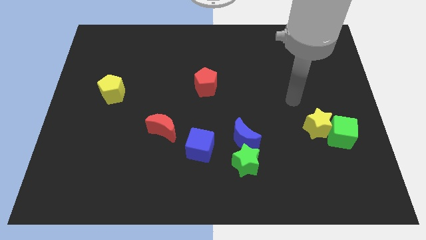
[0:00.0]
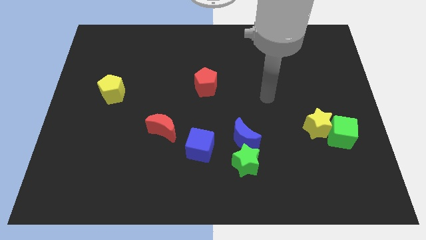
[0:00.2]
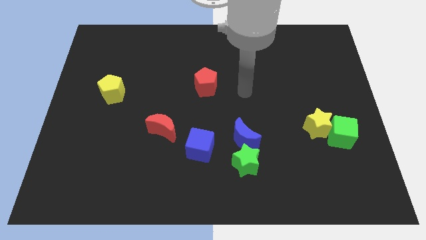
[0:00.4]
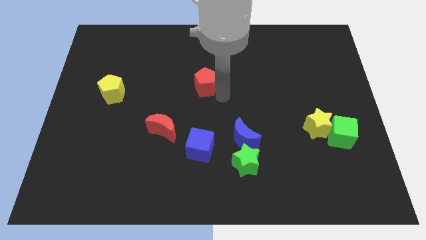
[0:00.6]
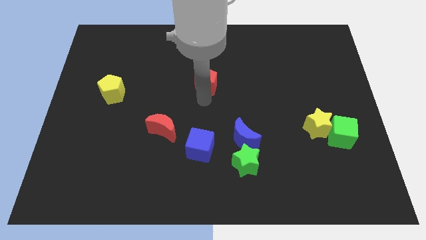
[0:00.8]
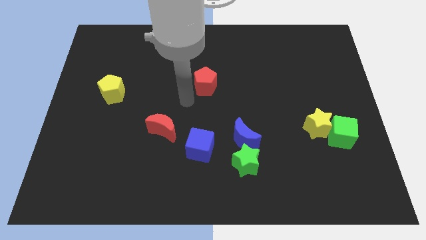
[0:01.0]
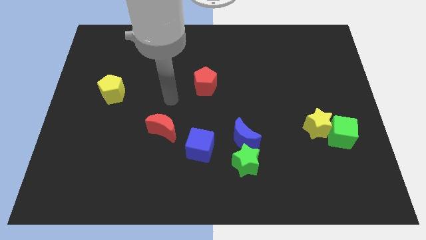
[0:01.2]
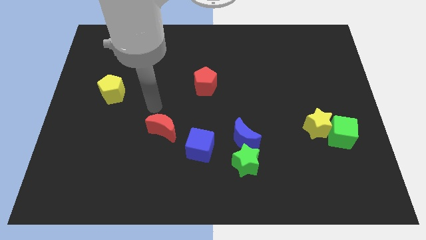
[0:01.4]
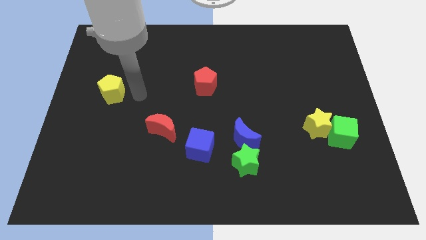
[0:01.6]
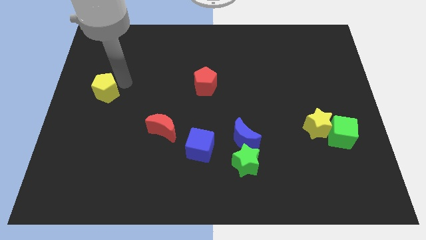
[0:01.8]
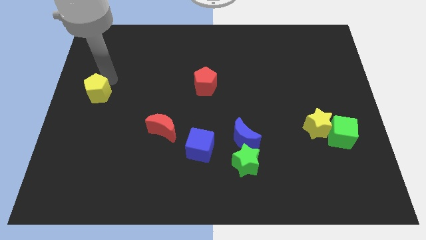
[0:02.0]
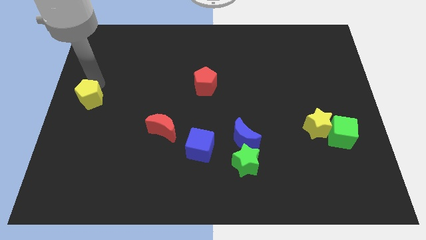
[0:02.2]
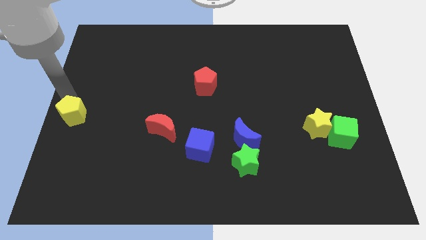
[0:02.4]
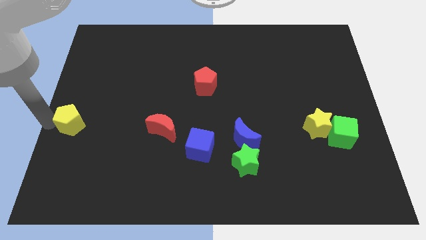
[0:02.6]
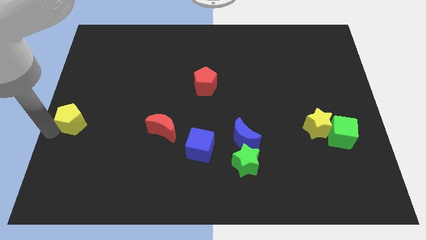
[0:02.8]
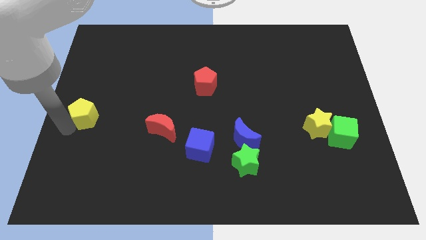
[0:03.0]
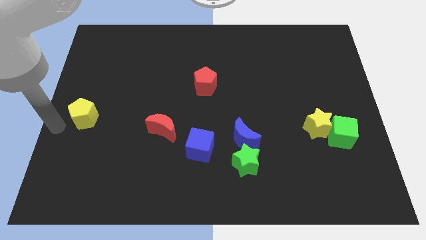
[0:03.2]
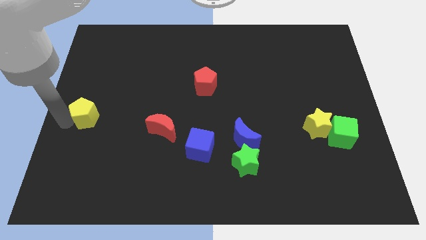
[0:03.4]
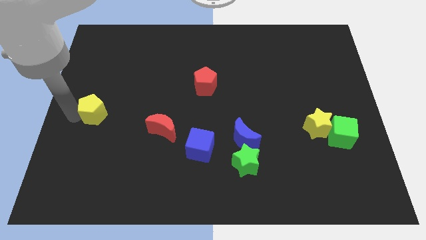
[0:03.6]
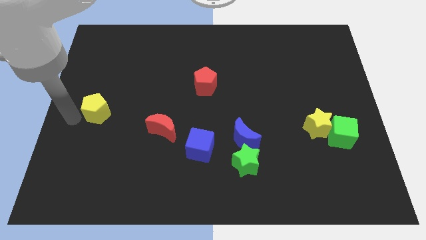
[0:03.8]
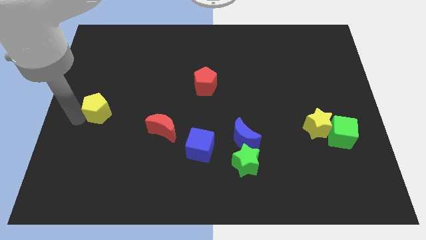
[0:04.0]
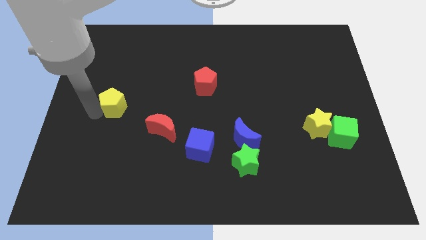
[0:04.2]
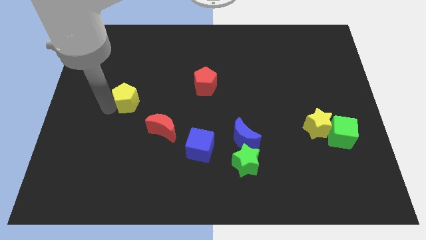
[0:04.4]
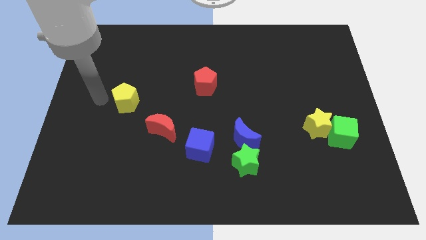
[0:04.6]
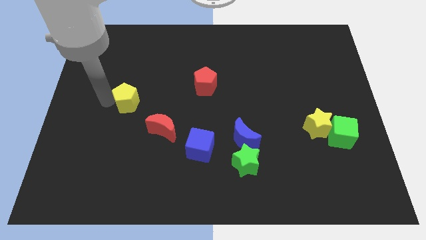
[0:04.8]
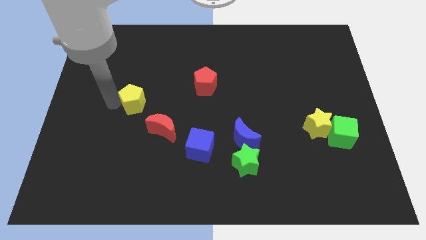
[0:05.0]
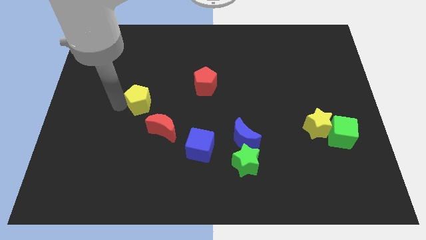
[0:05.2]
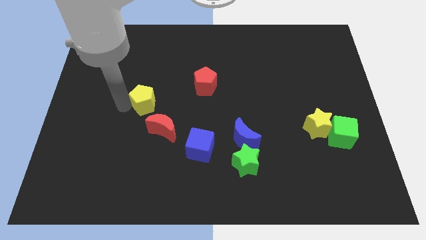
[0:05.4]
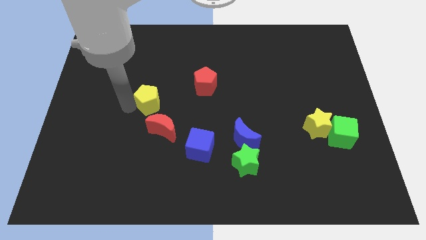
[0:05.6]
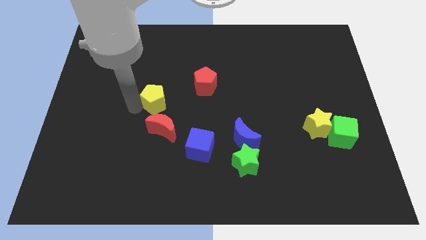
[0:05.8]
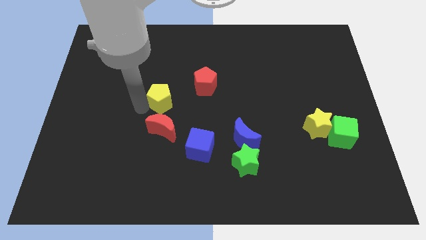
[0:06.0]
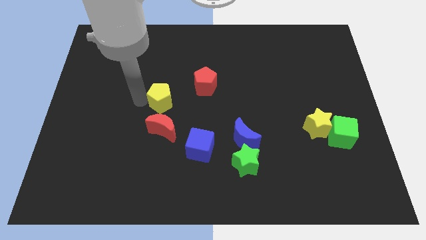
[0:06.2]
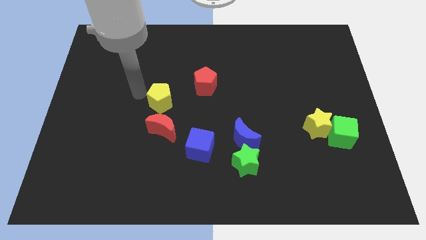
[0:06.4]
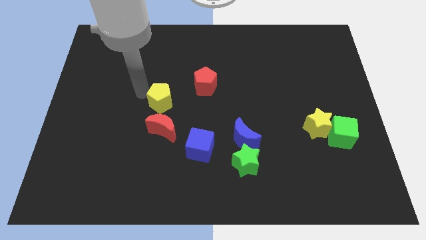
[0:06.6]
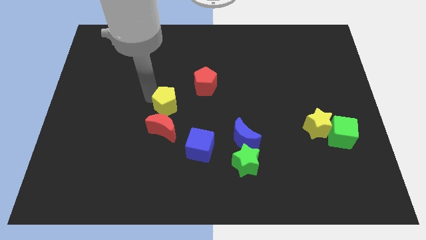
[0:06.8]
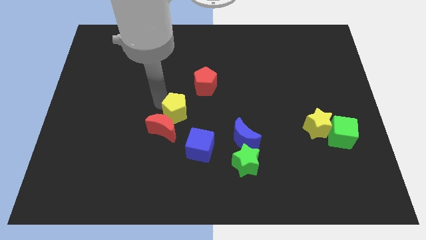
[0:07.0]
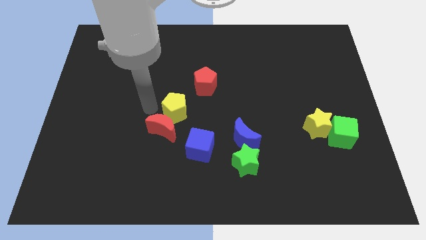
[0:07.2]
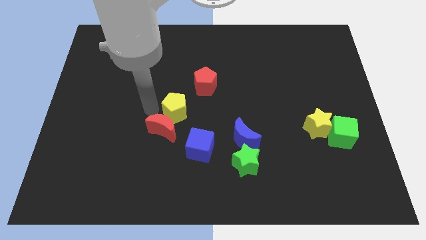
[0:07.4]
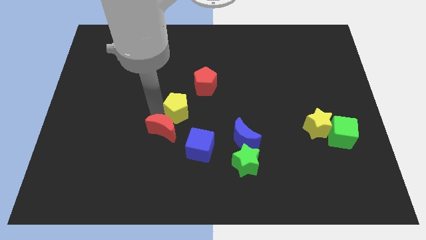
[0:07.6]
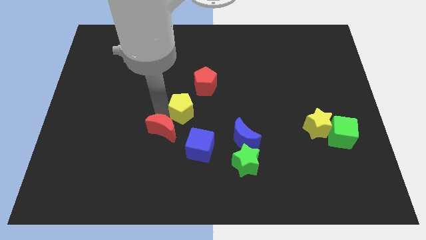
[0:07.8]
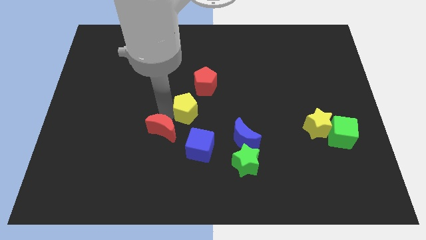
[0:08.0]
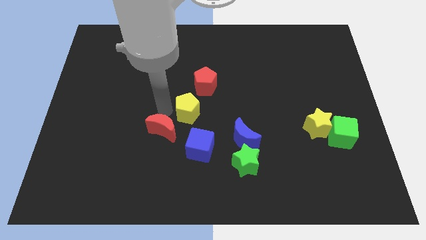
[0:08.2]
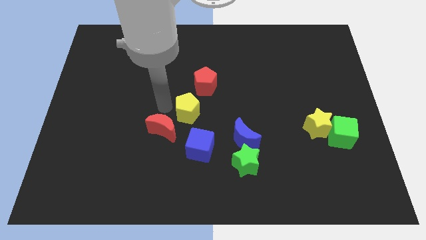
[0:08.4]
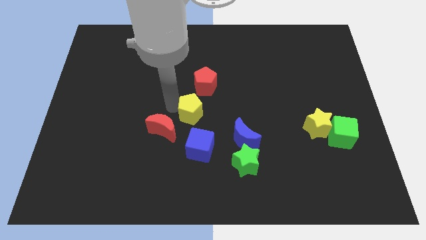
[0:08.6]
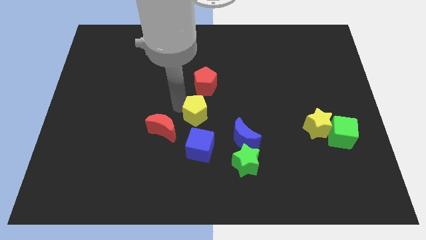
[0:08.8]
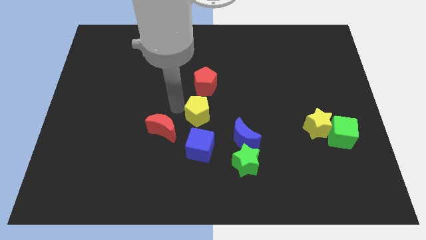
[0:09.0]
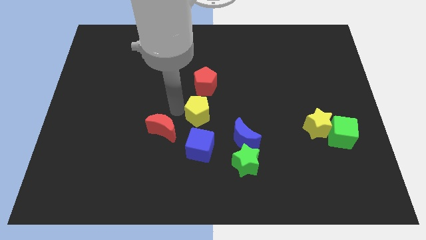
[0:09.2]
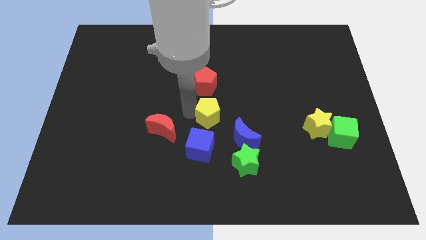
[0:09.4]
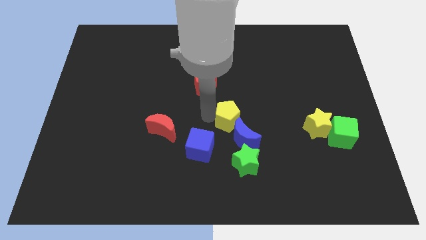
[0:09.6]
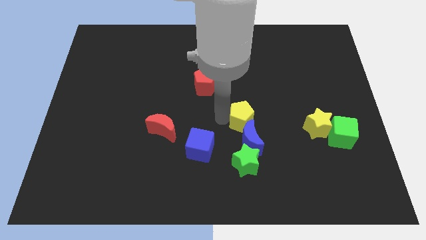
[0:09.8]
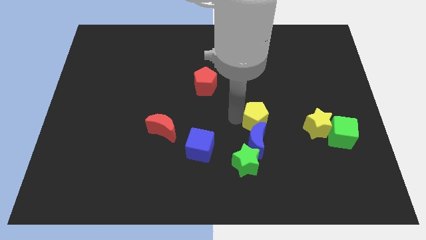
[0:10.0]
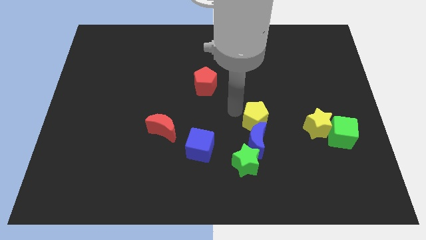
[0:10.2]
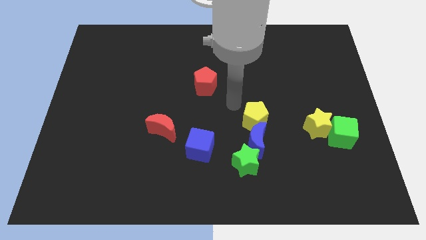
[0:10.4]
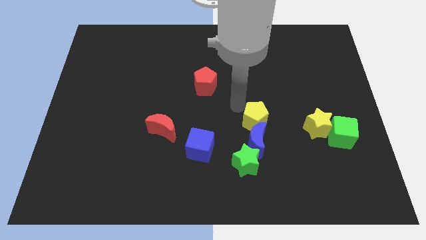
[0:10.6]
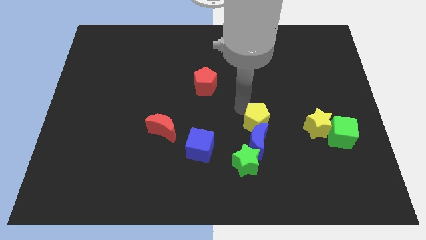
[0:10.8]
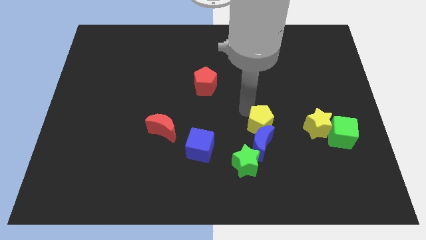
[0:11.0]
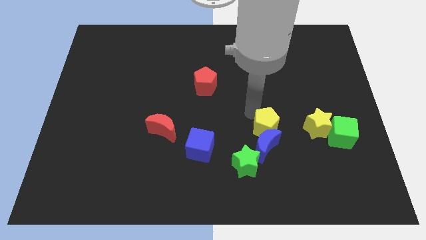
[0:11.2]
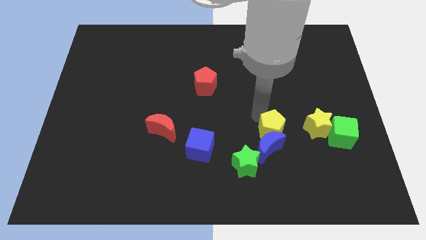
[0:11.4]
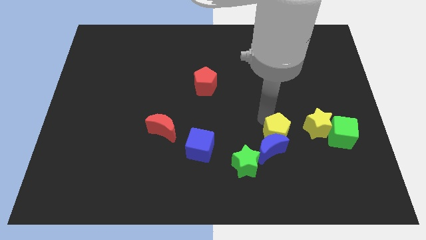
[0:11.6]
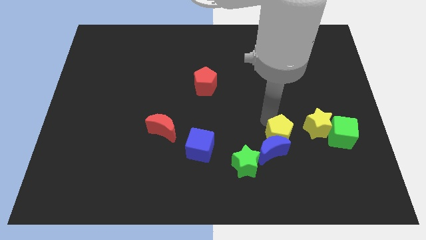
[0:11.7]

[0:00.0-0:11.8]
move the yellow pentagon to the bottom left of the yellow star

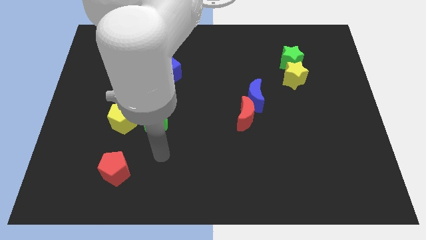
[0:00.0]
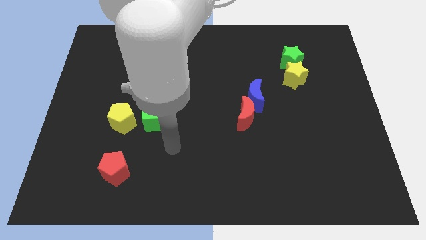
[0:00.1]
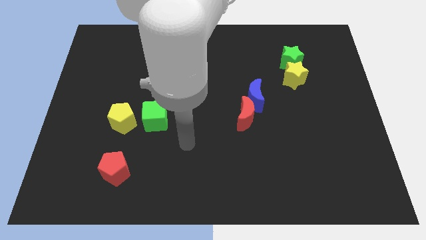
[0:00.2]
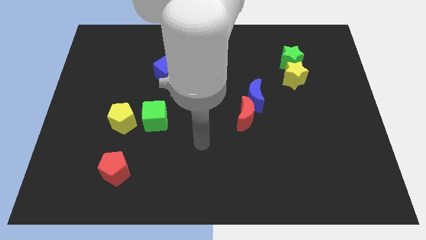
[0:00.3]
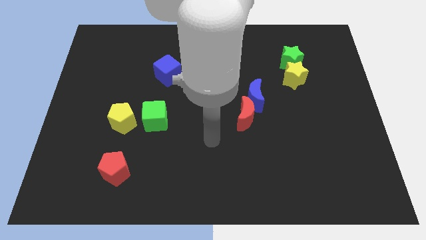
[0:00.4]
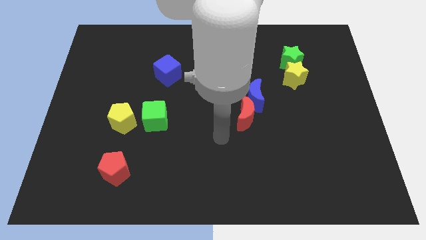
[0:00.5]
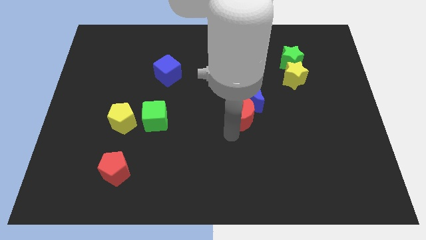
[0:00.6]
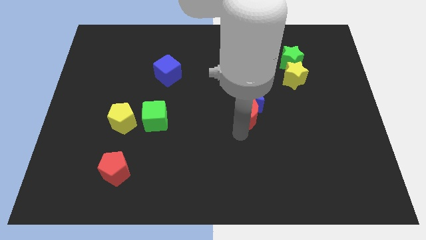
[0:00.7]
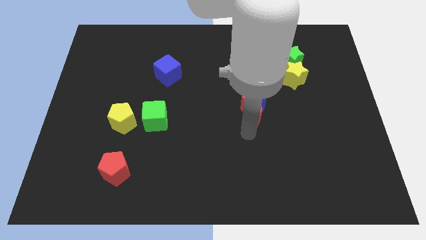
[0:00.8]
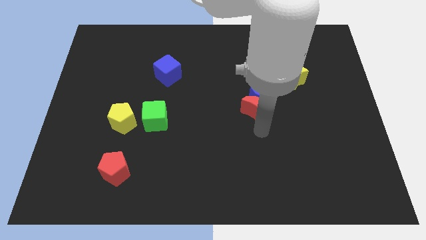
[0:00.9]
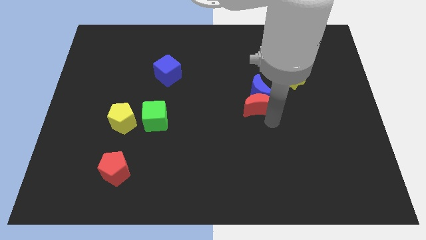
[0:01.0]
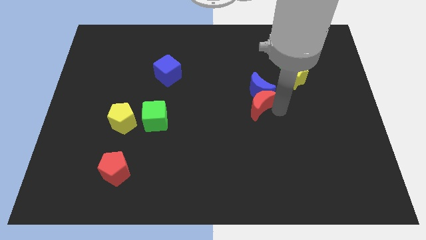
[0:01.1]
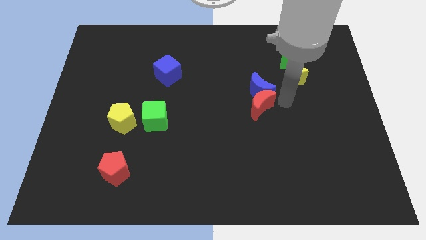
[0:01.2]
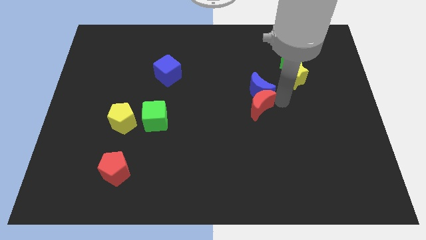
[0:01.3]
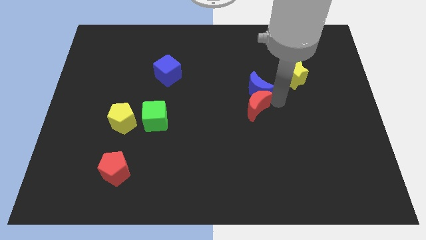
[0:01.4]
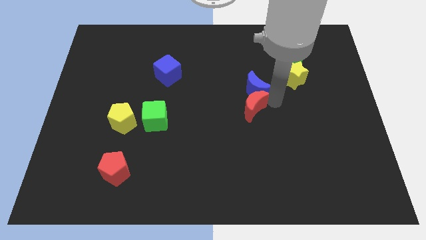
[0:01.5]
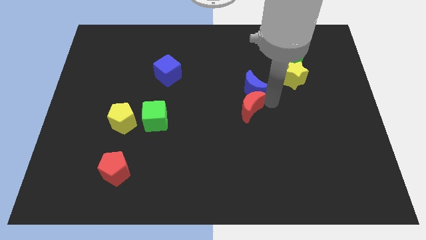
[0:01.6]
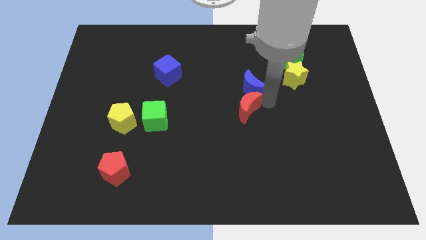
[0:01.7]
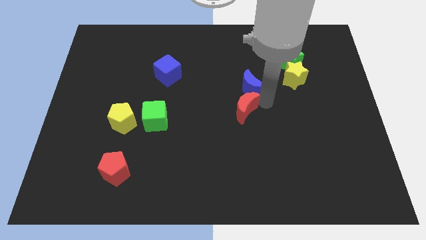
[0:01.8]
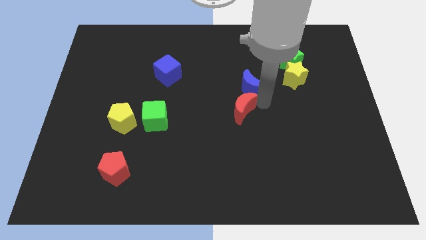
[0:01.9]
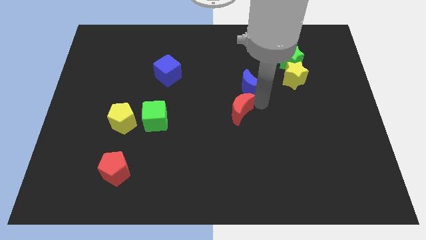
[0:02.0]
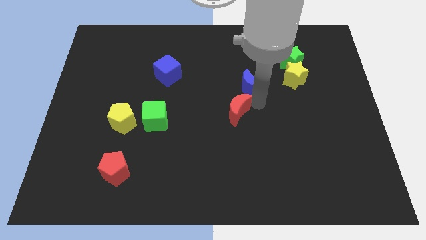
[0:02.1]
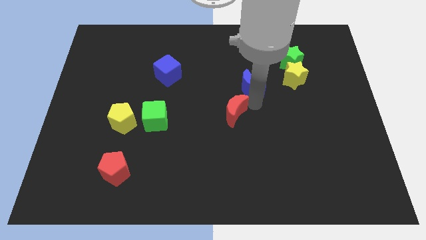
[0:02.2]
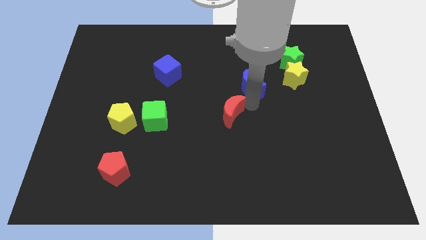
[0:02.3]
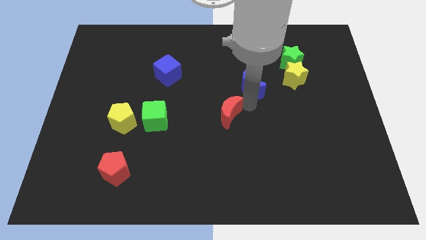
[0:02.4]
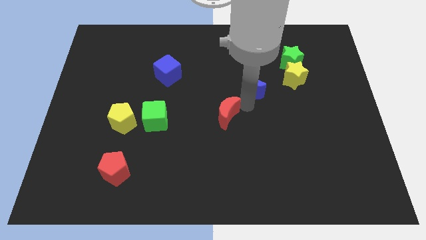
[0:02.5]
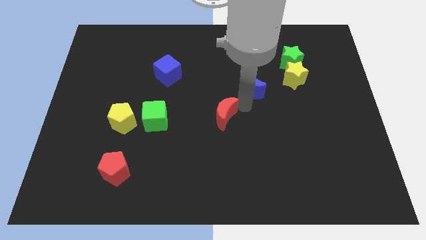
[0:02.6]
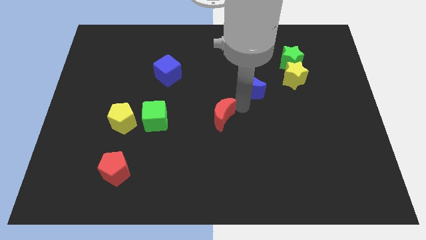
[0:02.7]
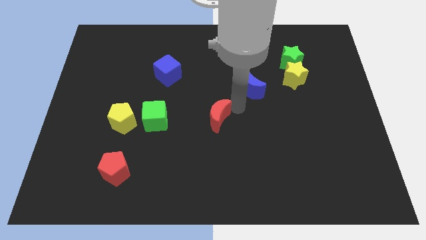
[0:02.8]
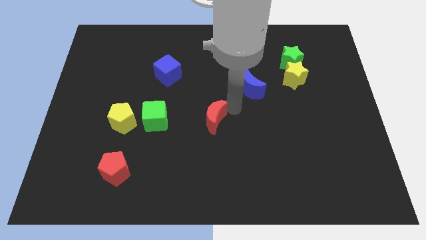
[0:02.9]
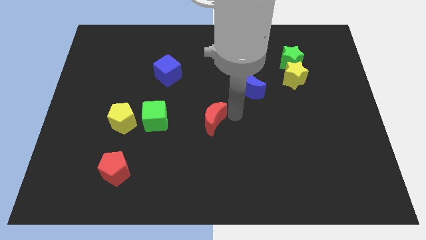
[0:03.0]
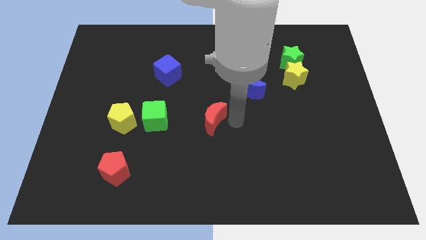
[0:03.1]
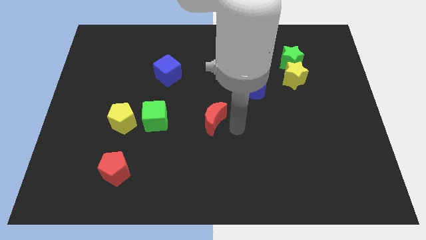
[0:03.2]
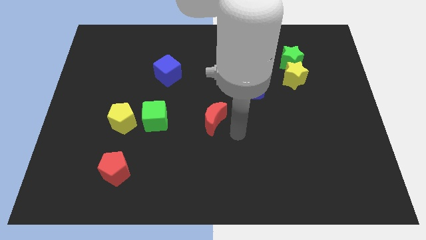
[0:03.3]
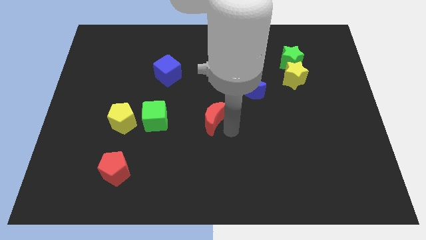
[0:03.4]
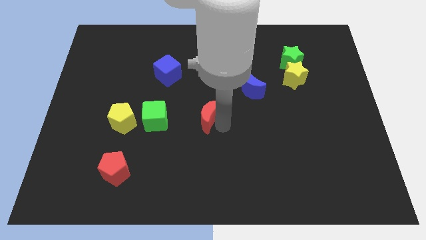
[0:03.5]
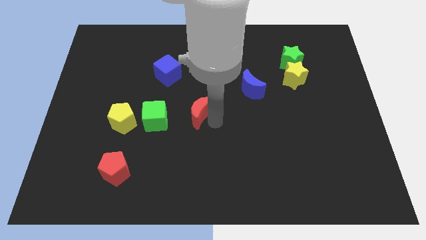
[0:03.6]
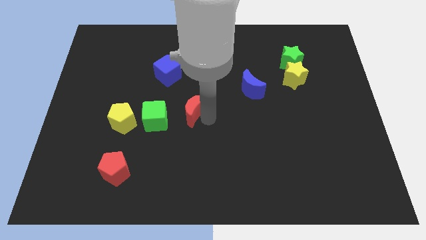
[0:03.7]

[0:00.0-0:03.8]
slide the red moon diagonally up and to the right of the green cube
